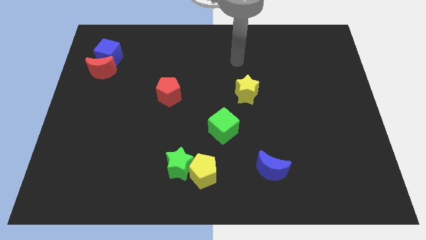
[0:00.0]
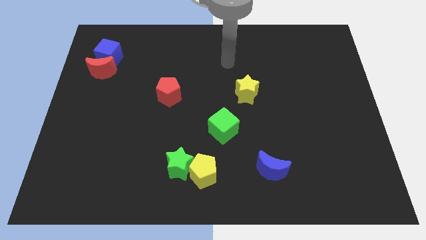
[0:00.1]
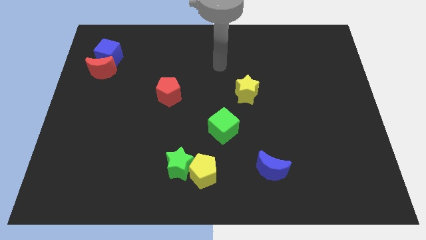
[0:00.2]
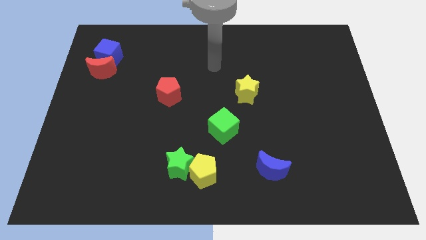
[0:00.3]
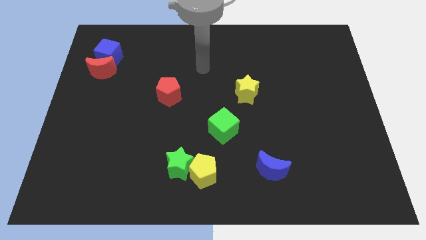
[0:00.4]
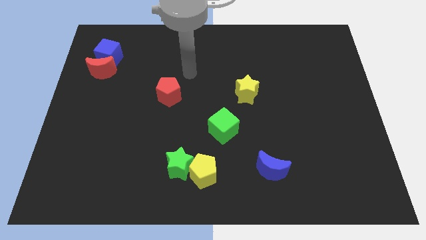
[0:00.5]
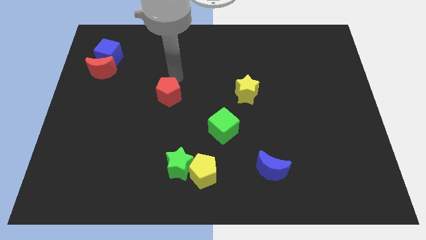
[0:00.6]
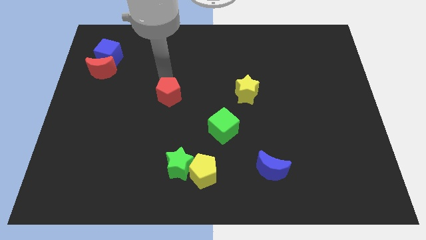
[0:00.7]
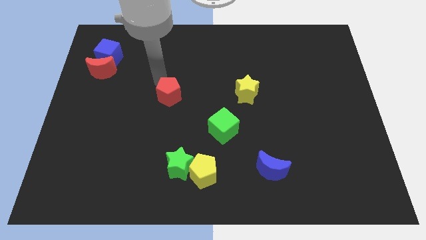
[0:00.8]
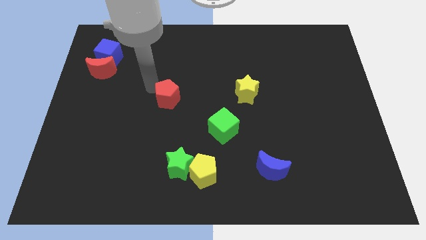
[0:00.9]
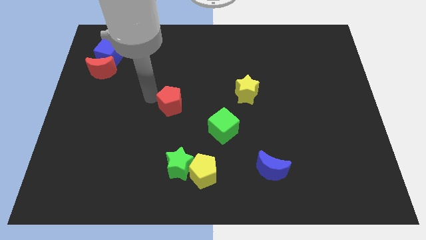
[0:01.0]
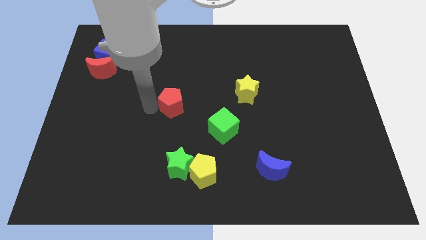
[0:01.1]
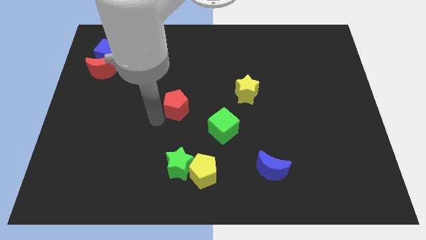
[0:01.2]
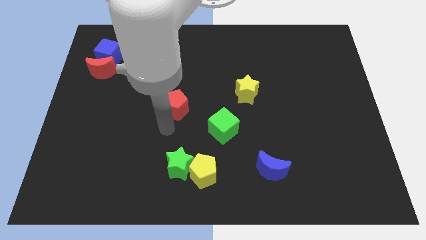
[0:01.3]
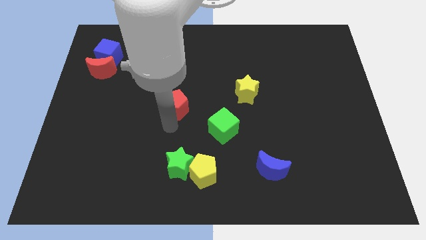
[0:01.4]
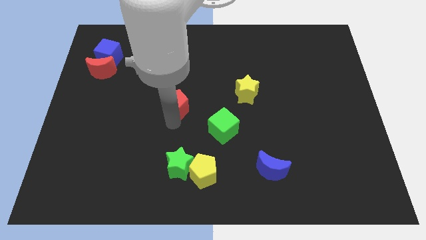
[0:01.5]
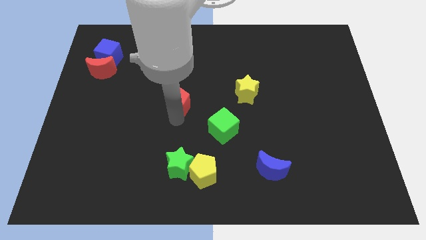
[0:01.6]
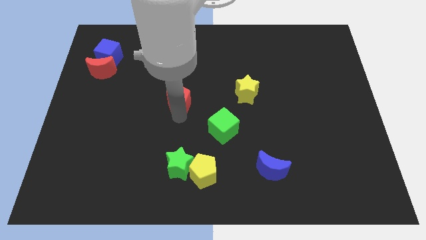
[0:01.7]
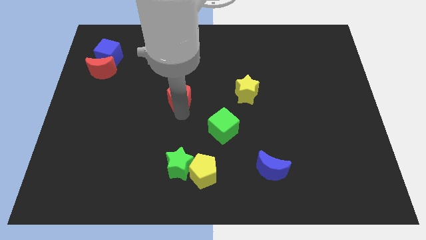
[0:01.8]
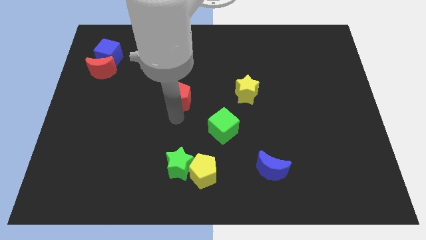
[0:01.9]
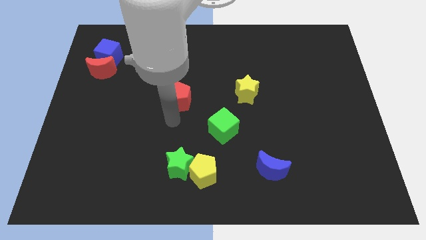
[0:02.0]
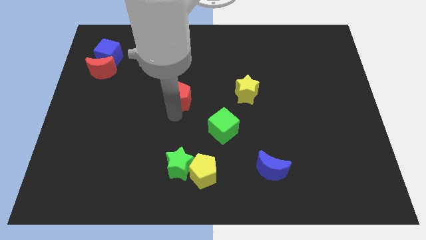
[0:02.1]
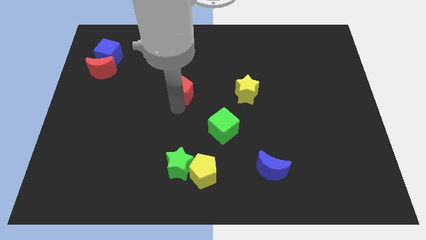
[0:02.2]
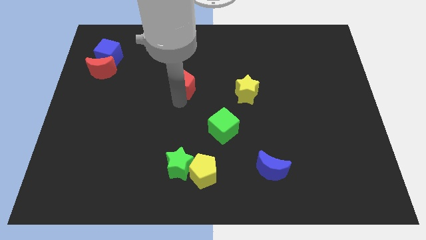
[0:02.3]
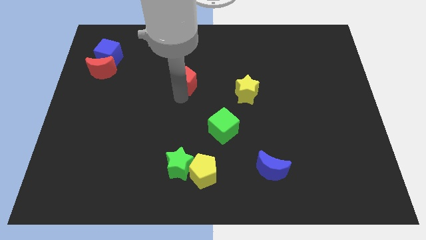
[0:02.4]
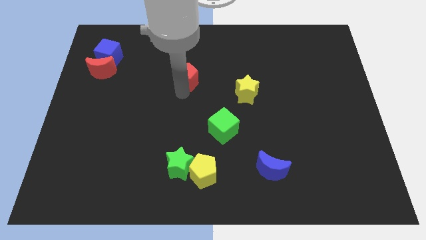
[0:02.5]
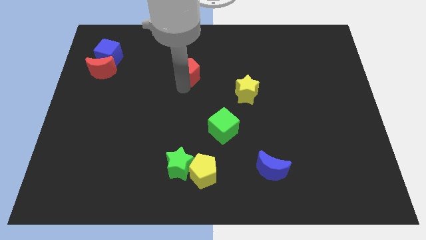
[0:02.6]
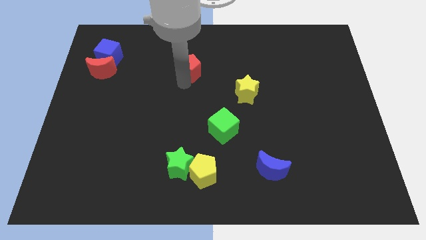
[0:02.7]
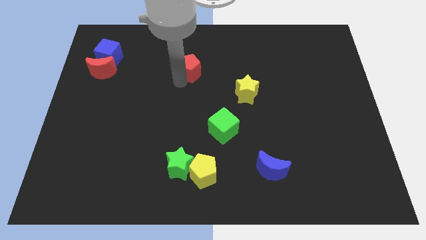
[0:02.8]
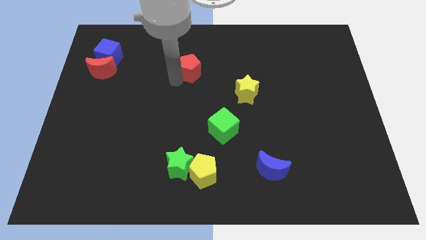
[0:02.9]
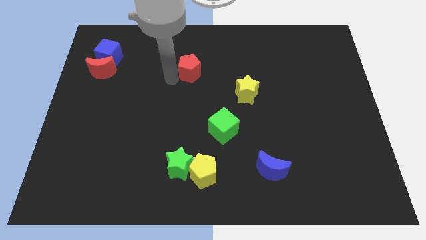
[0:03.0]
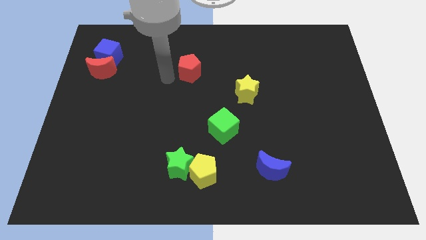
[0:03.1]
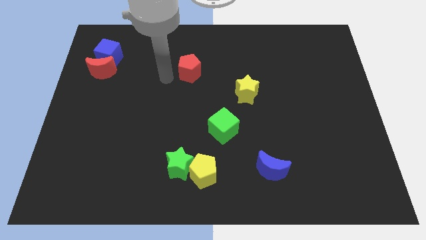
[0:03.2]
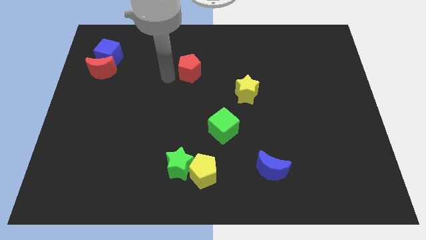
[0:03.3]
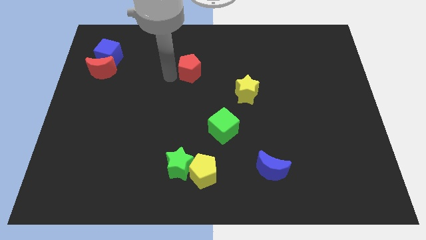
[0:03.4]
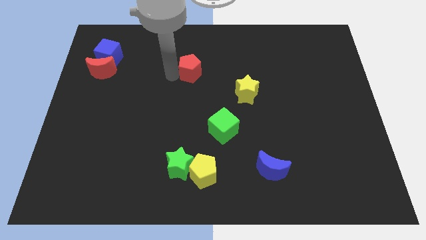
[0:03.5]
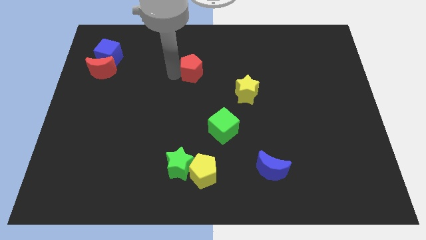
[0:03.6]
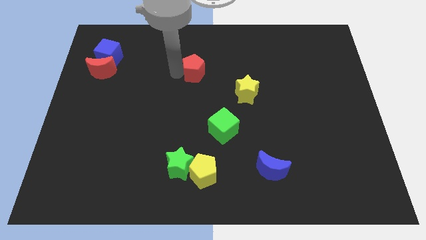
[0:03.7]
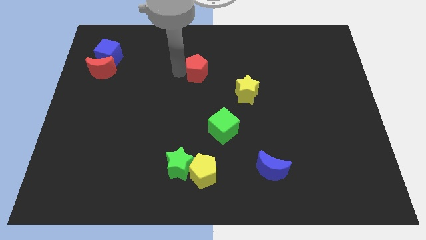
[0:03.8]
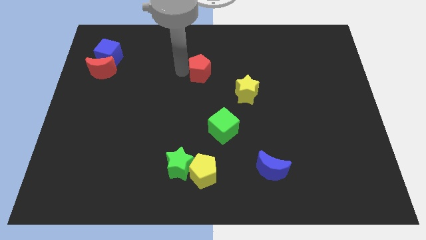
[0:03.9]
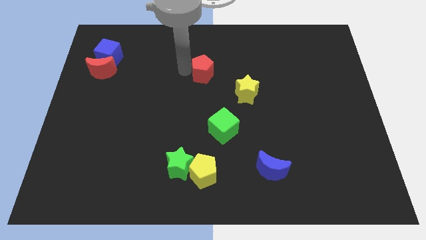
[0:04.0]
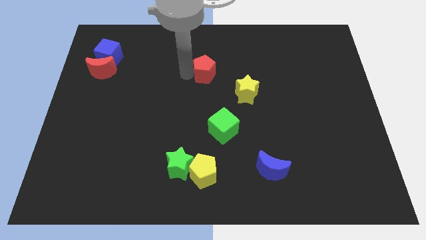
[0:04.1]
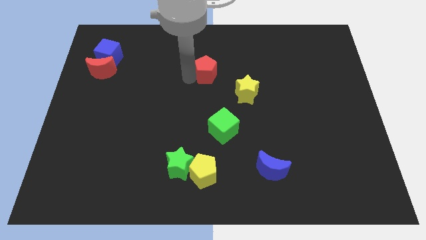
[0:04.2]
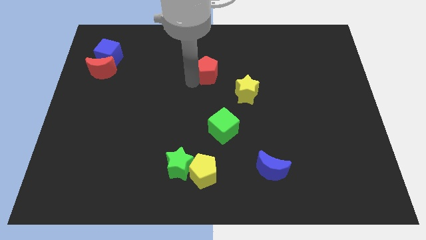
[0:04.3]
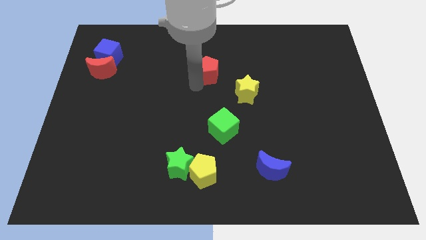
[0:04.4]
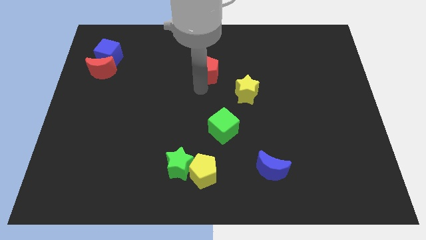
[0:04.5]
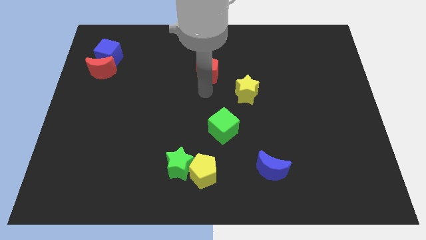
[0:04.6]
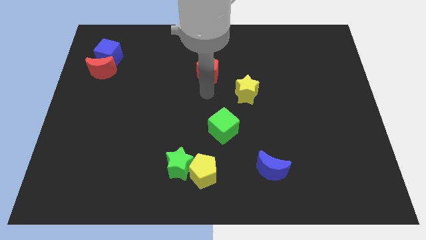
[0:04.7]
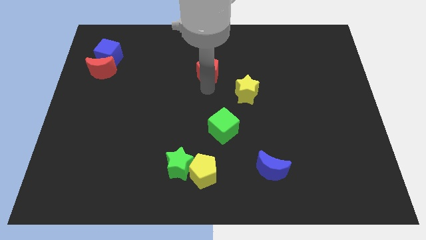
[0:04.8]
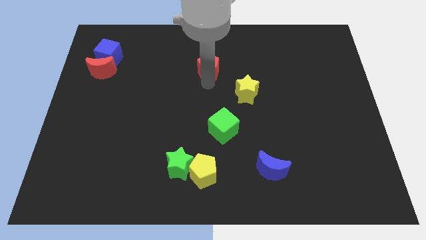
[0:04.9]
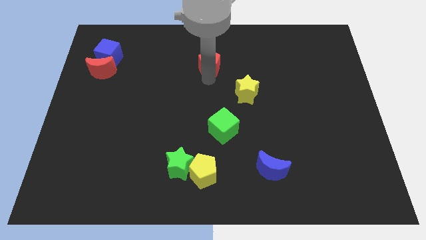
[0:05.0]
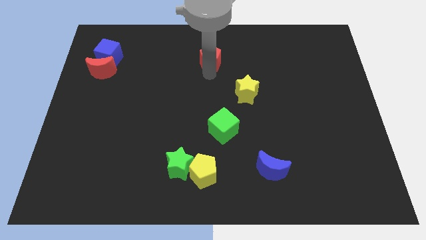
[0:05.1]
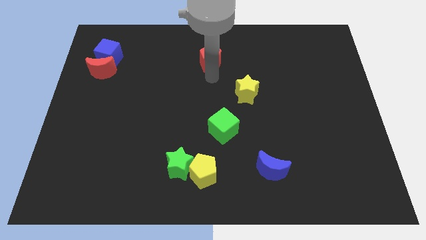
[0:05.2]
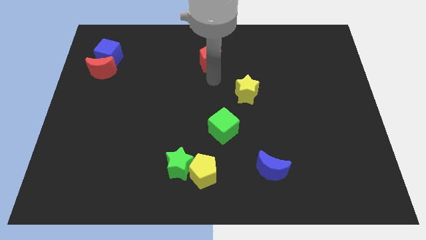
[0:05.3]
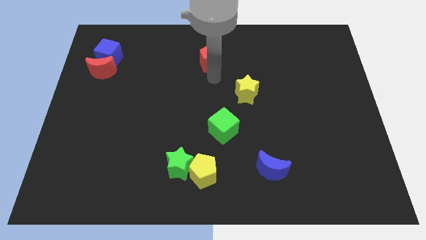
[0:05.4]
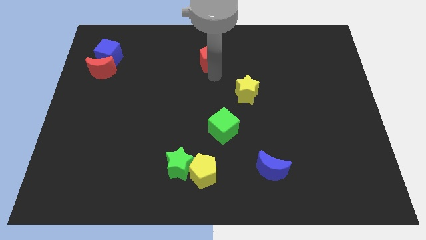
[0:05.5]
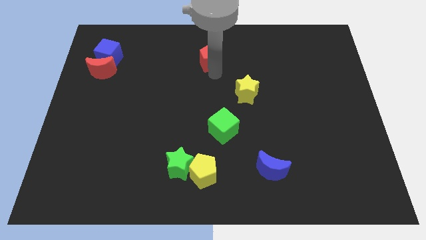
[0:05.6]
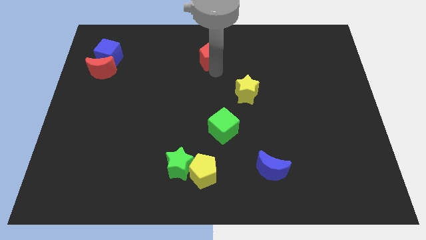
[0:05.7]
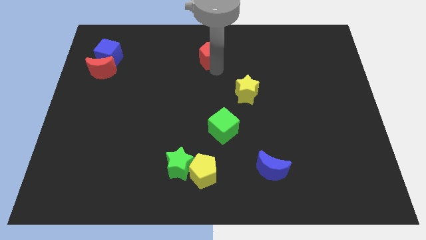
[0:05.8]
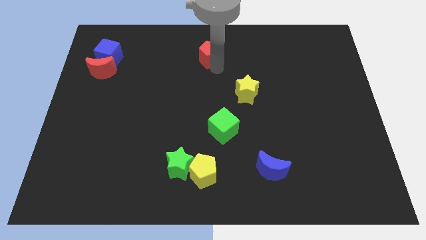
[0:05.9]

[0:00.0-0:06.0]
move the red pentagon to the top side
